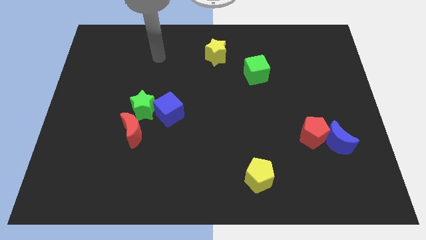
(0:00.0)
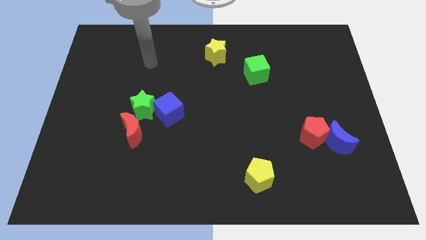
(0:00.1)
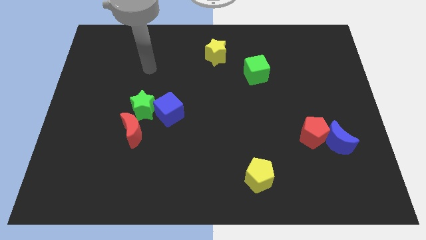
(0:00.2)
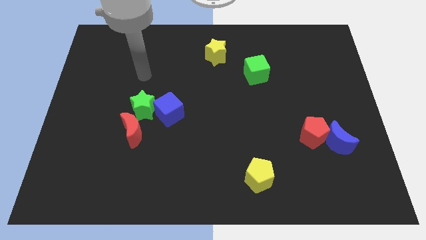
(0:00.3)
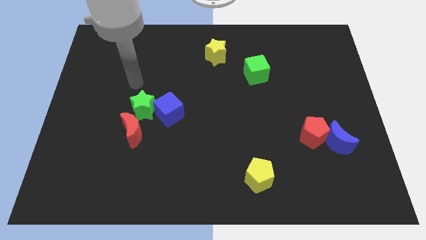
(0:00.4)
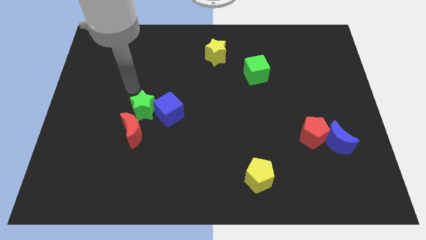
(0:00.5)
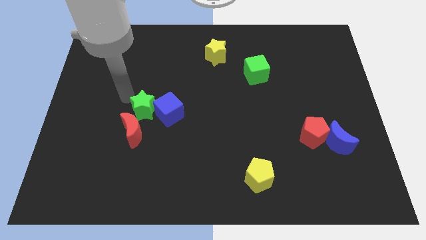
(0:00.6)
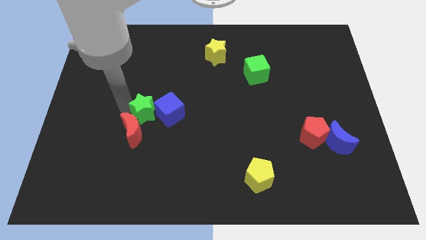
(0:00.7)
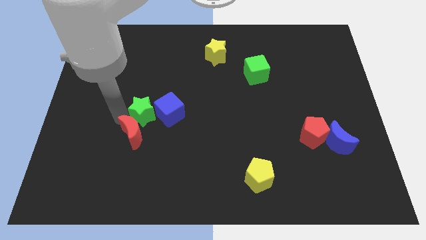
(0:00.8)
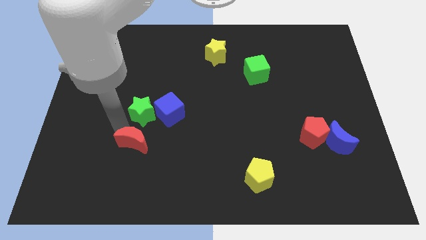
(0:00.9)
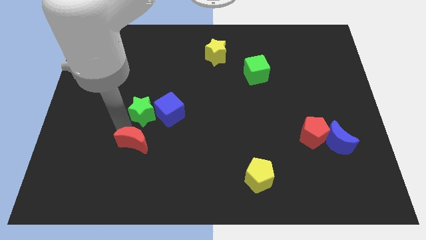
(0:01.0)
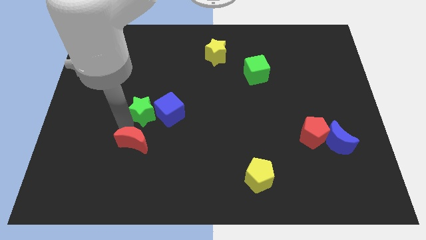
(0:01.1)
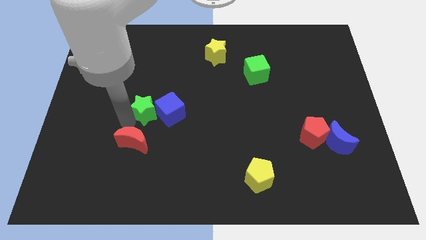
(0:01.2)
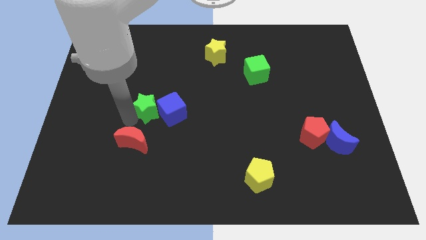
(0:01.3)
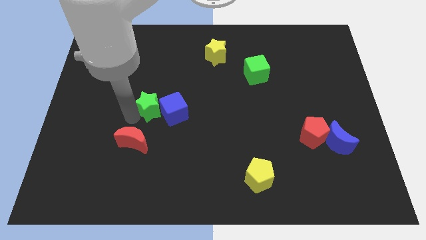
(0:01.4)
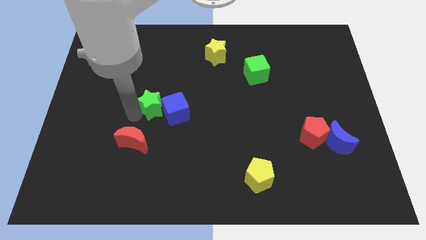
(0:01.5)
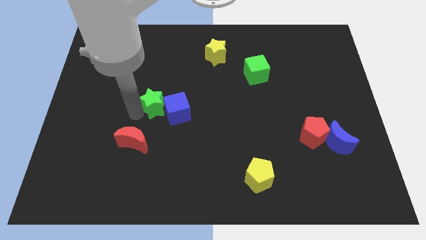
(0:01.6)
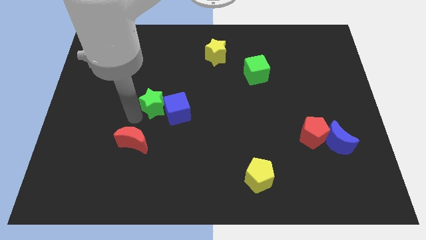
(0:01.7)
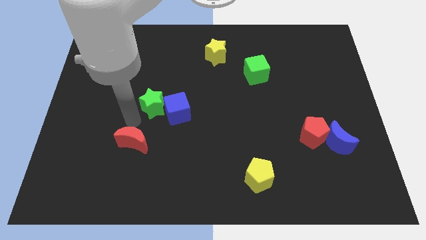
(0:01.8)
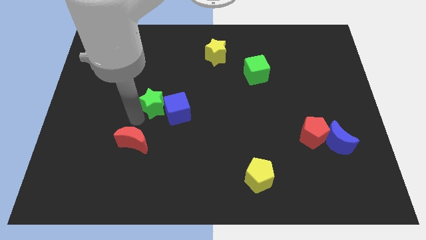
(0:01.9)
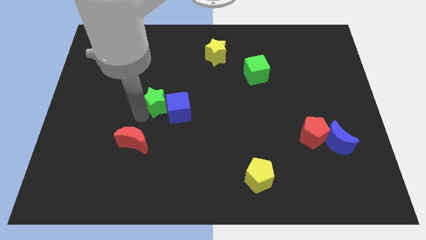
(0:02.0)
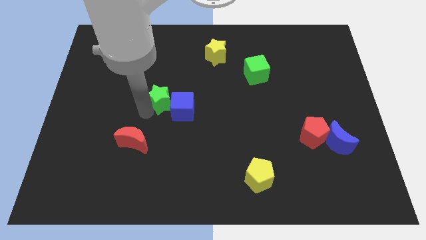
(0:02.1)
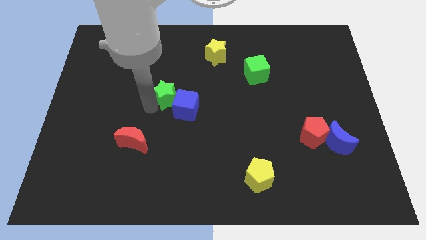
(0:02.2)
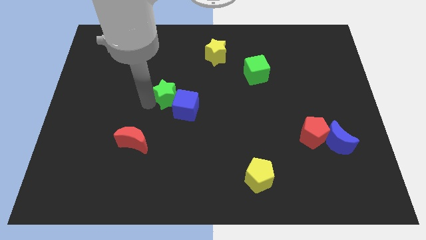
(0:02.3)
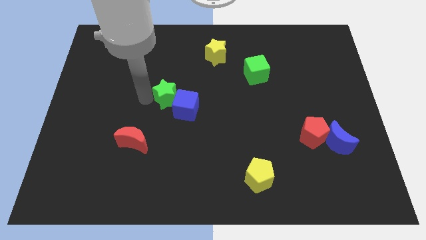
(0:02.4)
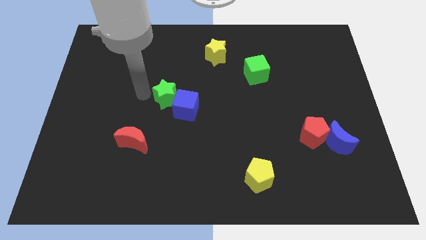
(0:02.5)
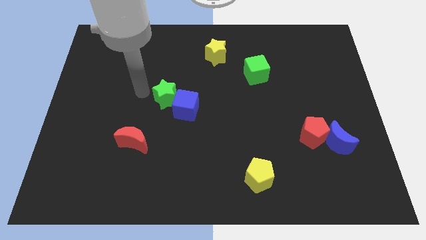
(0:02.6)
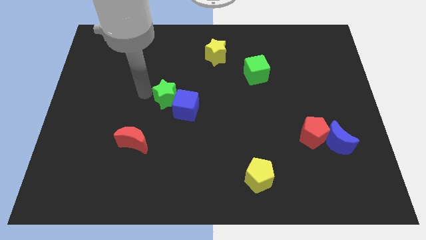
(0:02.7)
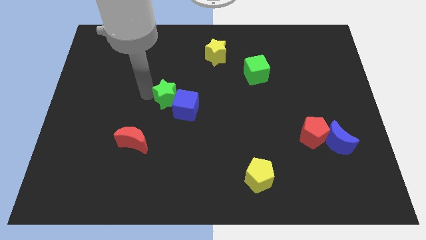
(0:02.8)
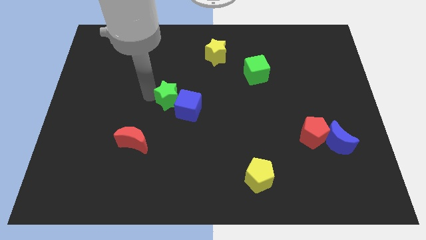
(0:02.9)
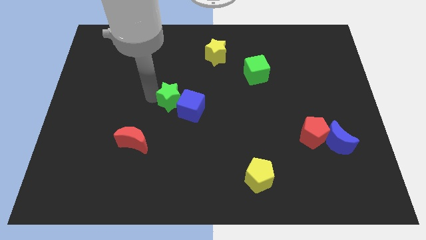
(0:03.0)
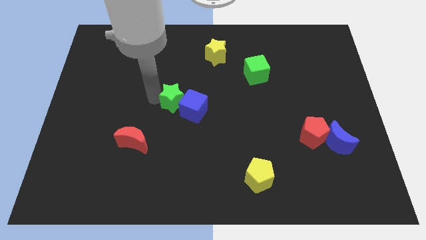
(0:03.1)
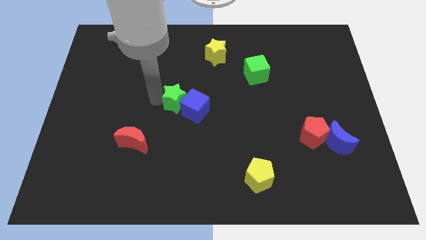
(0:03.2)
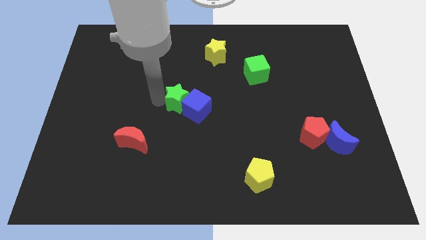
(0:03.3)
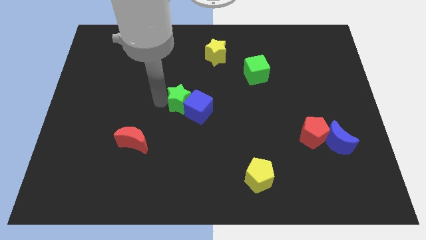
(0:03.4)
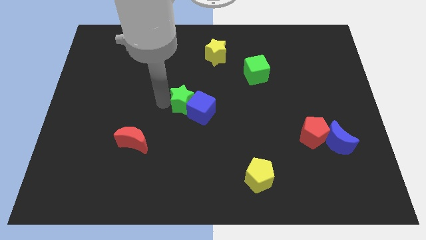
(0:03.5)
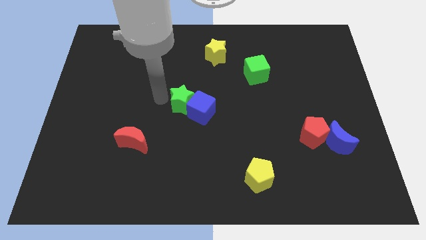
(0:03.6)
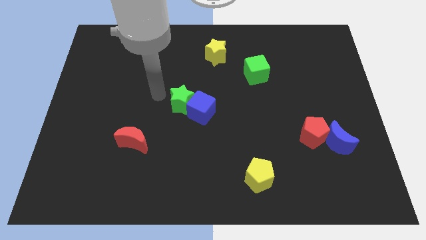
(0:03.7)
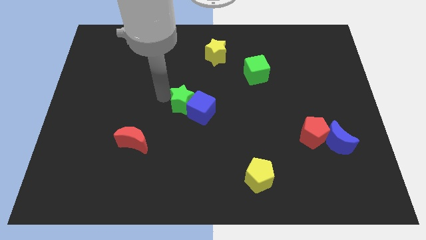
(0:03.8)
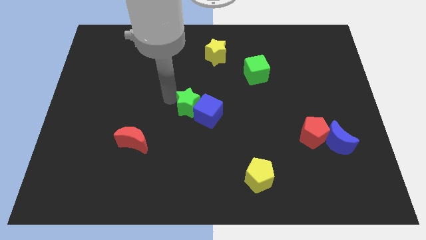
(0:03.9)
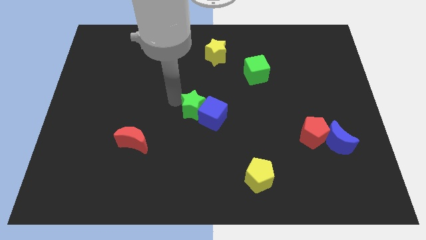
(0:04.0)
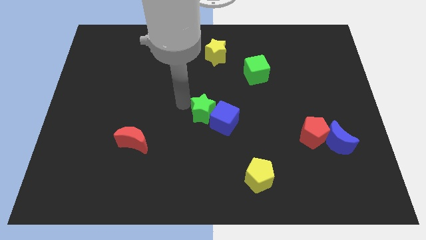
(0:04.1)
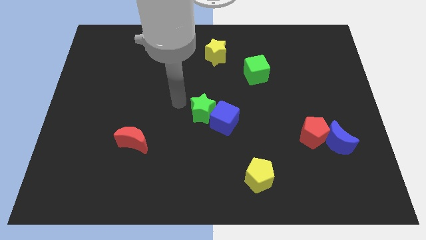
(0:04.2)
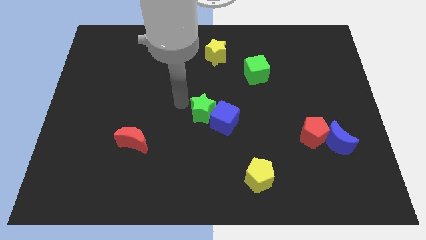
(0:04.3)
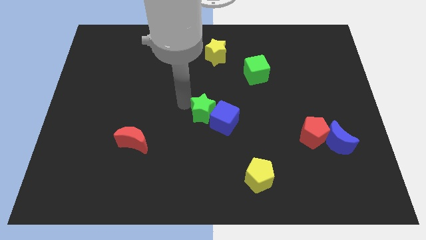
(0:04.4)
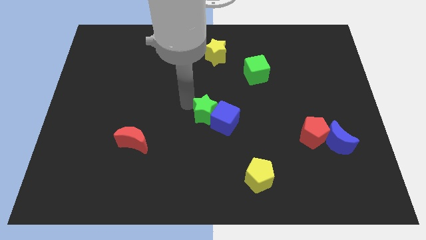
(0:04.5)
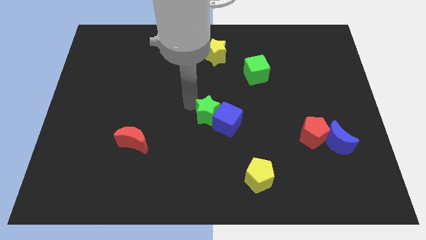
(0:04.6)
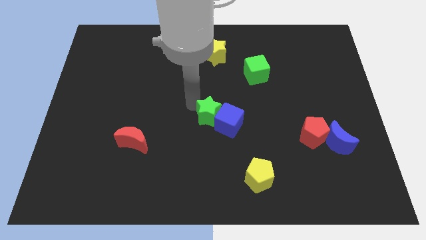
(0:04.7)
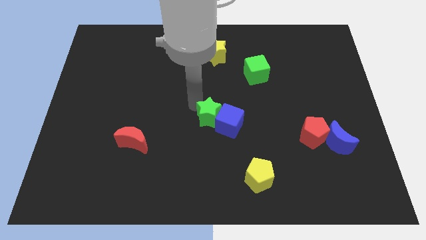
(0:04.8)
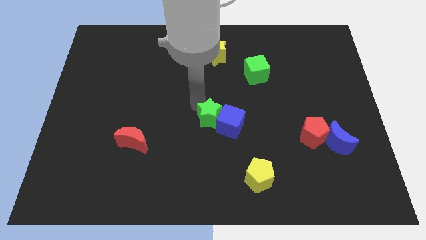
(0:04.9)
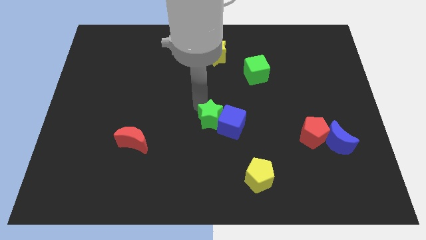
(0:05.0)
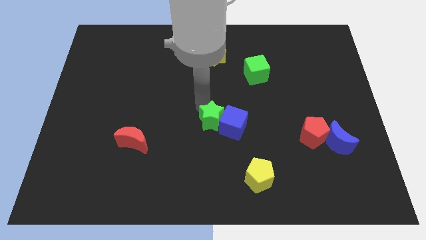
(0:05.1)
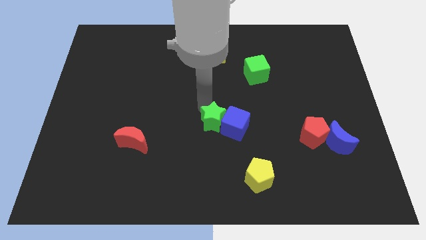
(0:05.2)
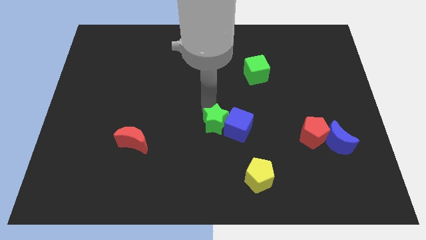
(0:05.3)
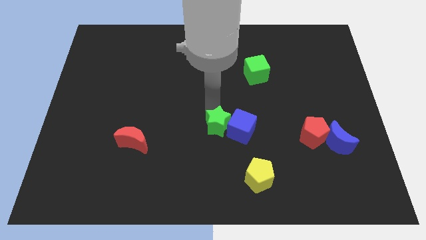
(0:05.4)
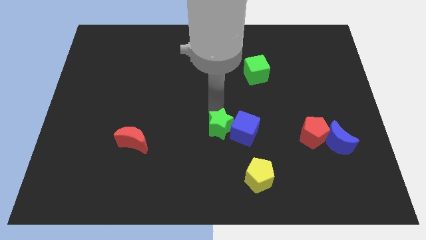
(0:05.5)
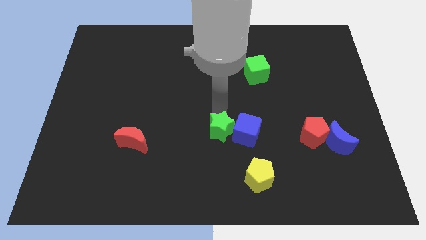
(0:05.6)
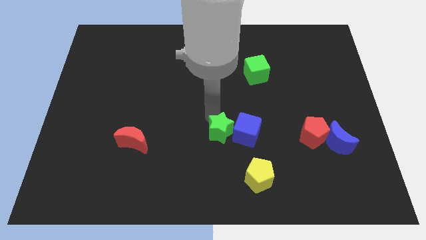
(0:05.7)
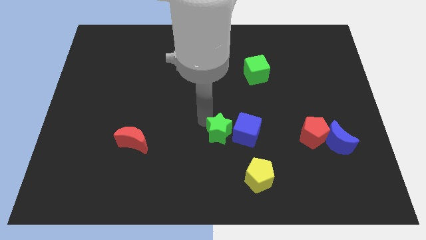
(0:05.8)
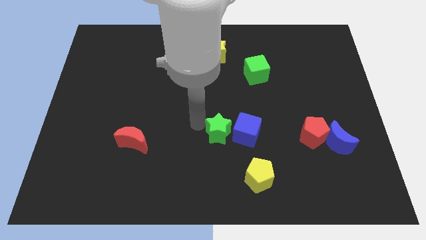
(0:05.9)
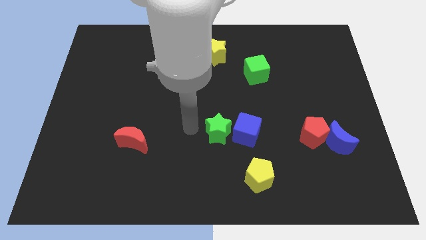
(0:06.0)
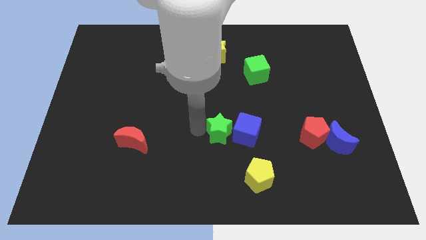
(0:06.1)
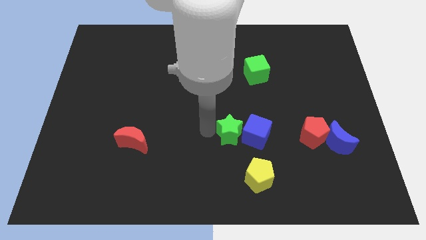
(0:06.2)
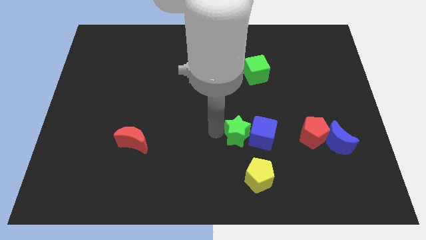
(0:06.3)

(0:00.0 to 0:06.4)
put the green star to the top of the yellow pentagon

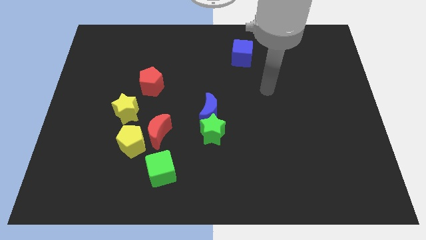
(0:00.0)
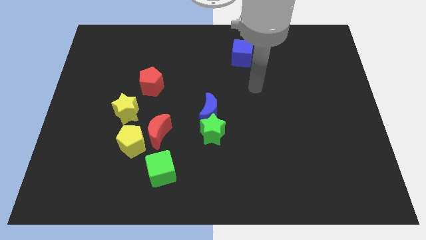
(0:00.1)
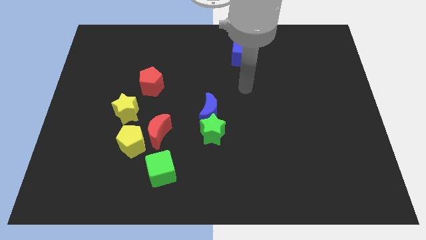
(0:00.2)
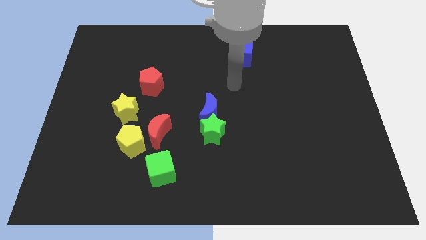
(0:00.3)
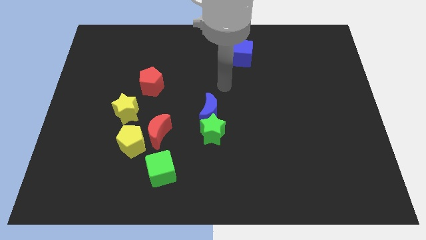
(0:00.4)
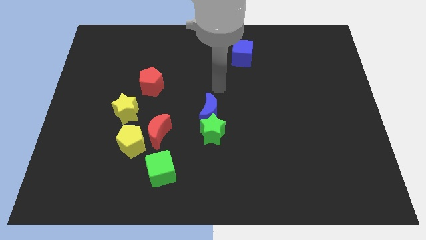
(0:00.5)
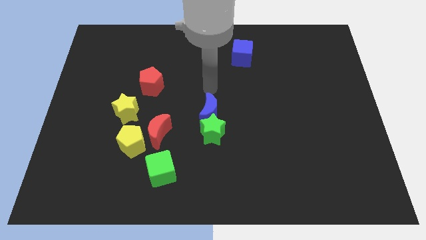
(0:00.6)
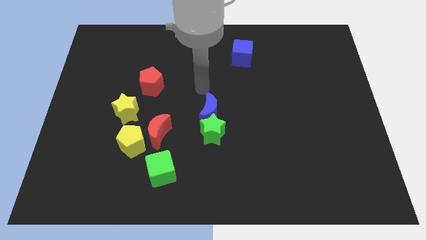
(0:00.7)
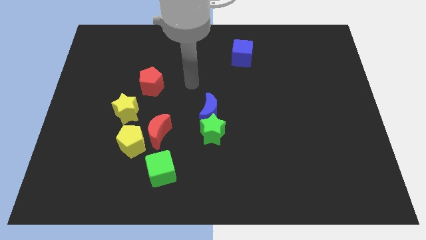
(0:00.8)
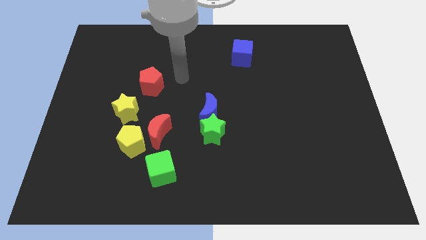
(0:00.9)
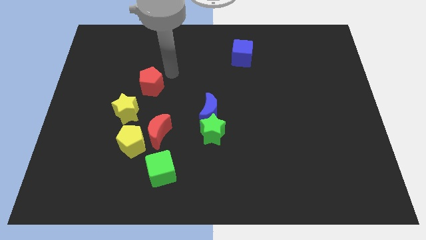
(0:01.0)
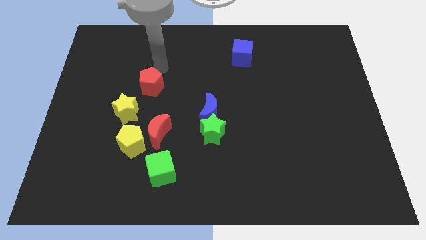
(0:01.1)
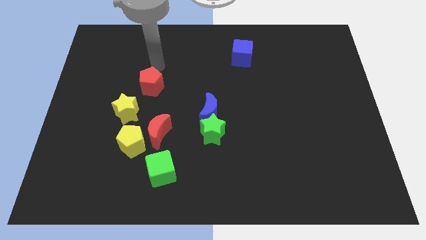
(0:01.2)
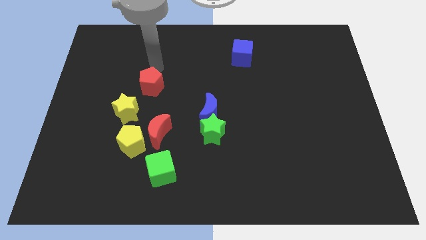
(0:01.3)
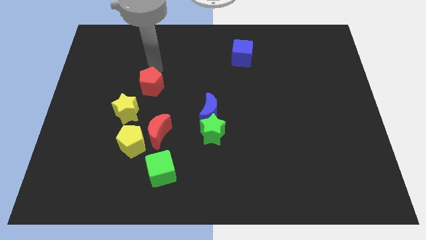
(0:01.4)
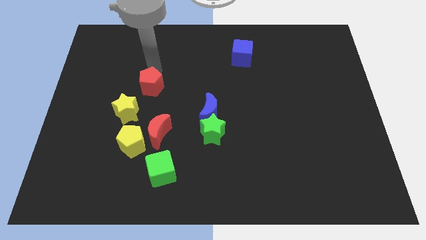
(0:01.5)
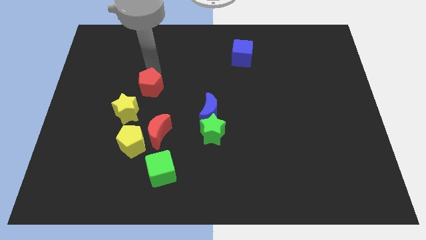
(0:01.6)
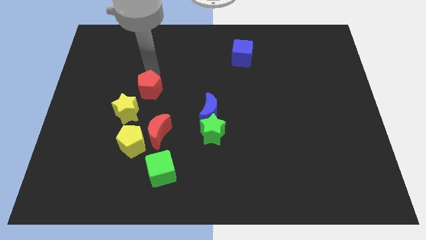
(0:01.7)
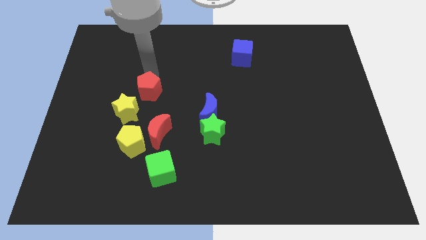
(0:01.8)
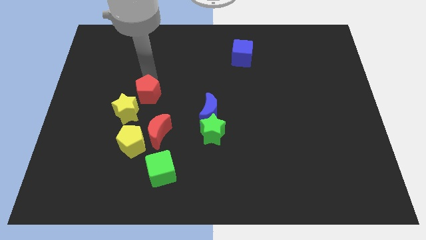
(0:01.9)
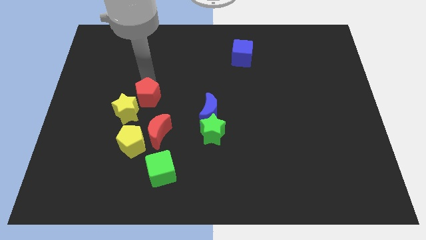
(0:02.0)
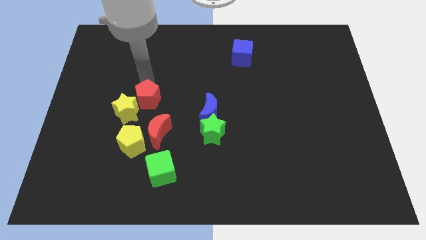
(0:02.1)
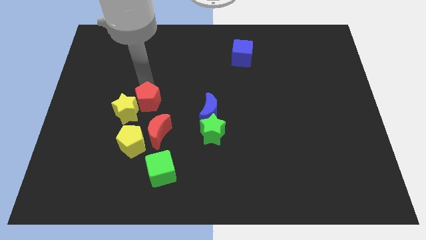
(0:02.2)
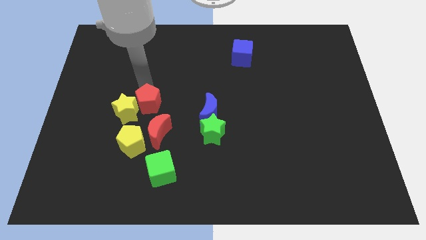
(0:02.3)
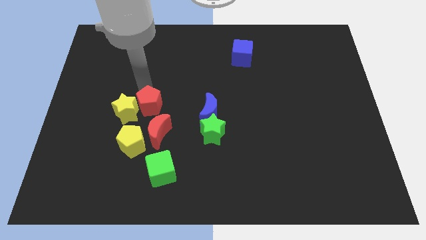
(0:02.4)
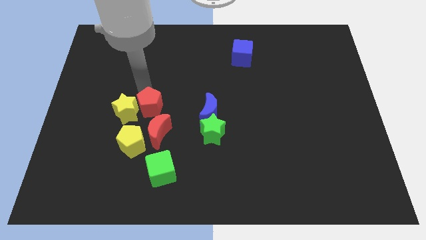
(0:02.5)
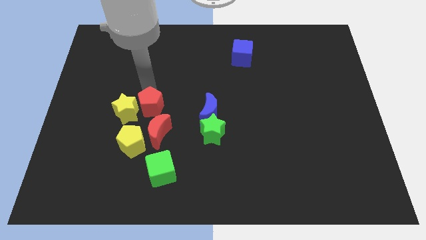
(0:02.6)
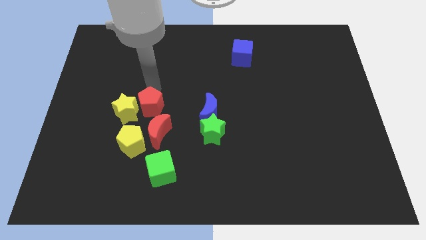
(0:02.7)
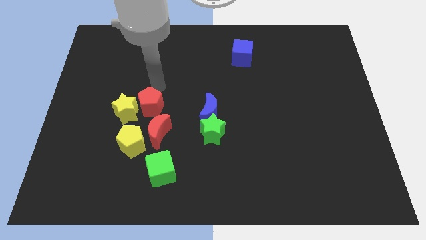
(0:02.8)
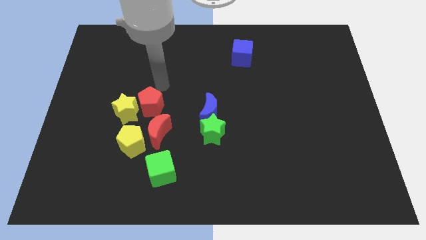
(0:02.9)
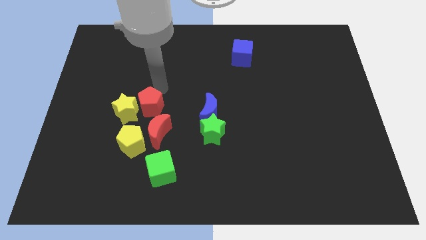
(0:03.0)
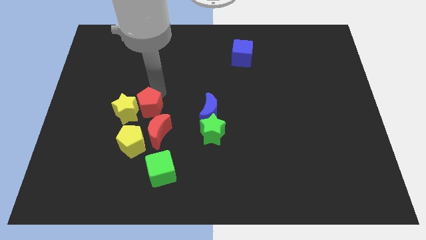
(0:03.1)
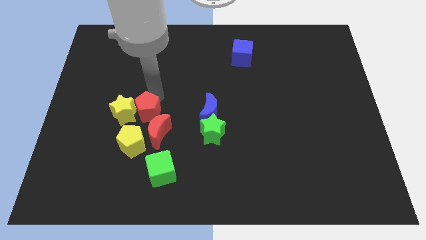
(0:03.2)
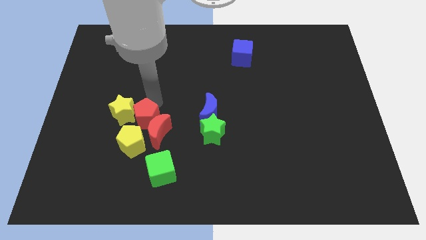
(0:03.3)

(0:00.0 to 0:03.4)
push the red pentagon left of the red moon
